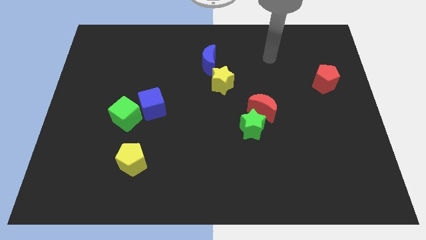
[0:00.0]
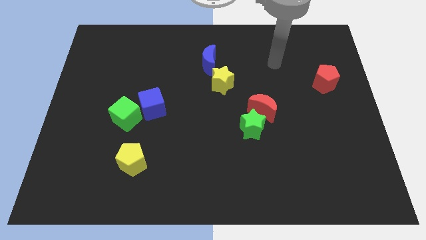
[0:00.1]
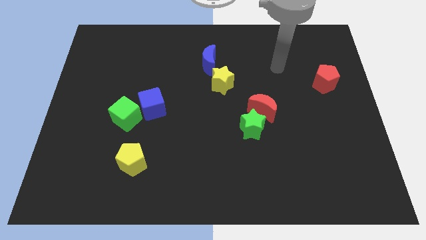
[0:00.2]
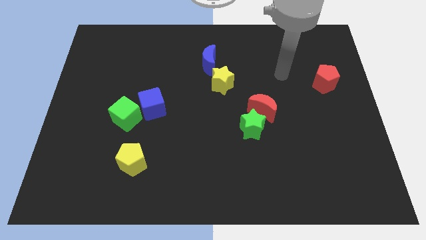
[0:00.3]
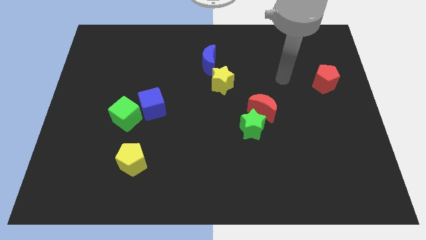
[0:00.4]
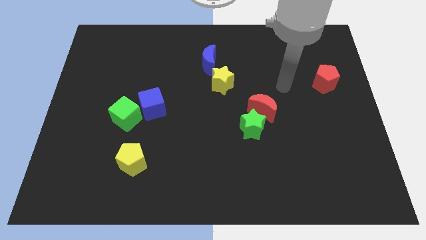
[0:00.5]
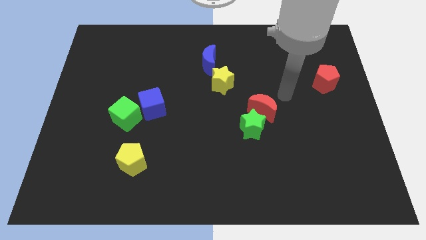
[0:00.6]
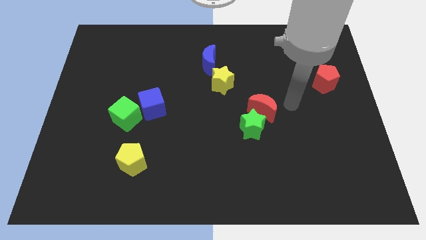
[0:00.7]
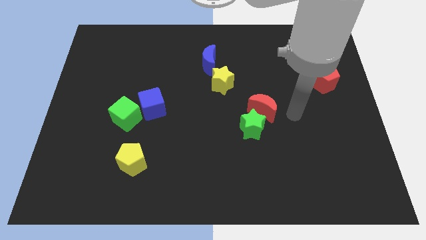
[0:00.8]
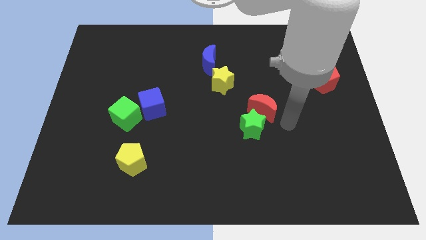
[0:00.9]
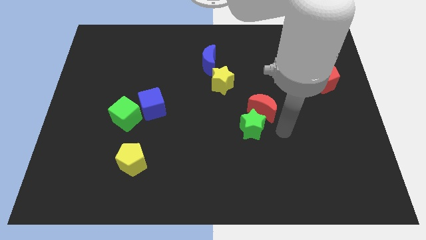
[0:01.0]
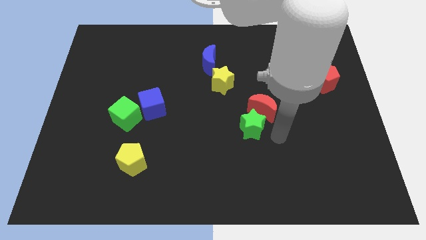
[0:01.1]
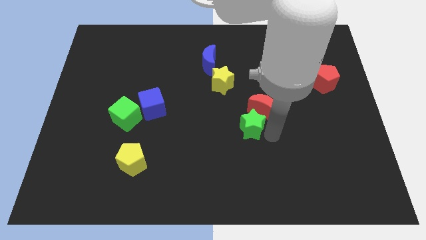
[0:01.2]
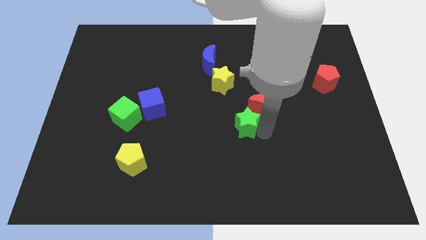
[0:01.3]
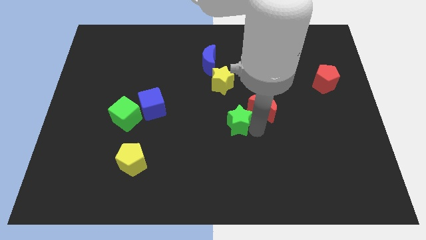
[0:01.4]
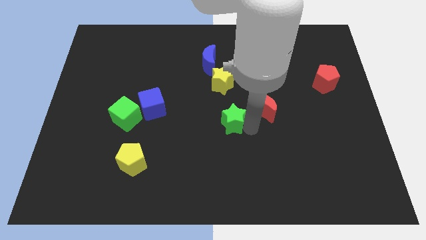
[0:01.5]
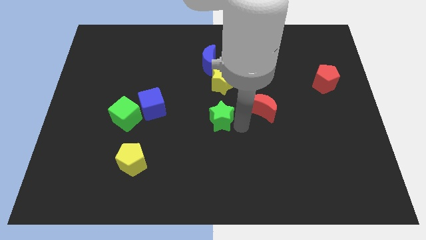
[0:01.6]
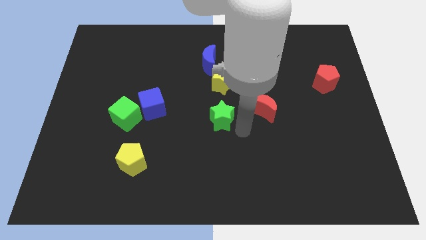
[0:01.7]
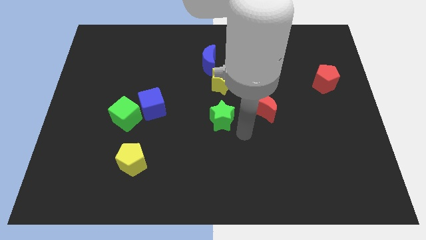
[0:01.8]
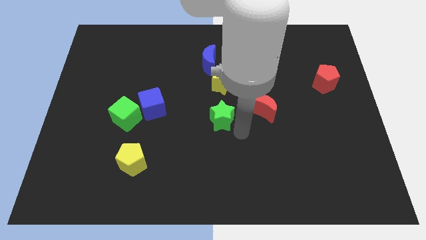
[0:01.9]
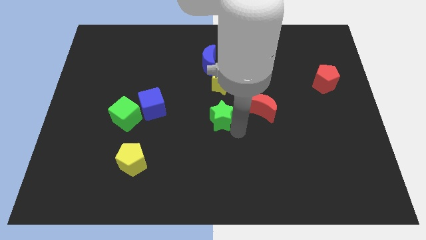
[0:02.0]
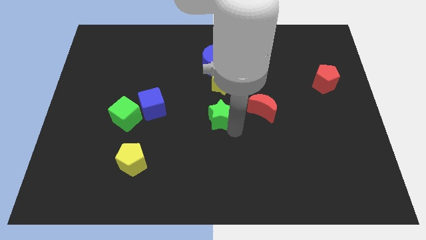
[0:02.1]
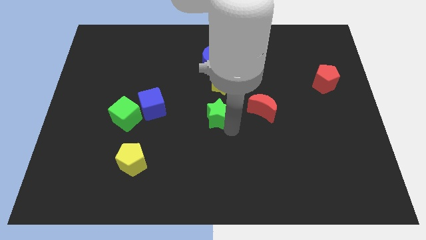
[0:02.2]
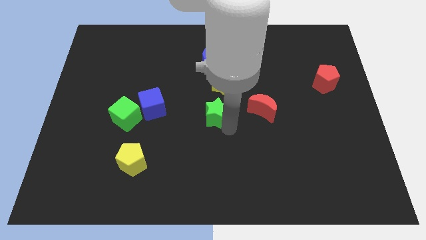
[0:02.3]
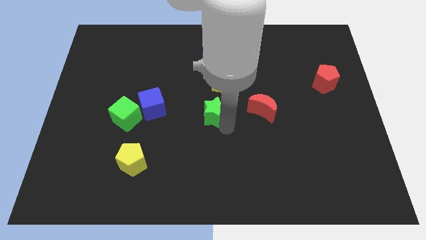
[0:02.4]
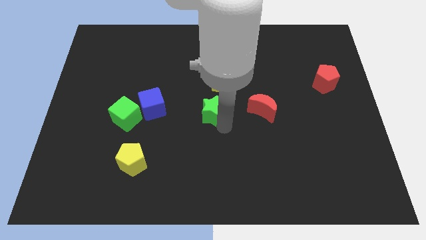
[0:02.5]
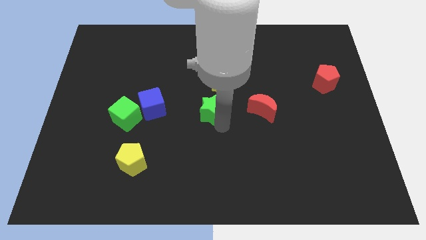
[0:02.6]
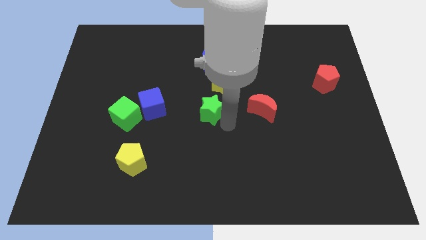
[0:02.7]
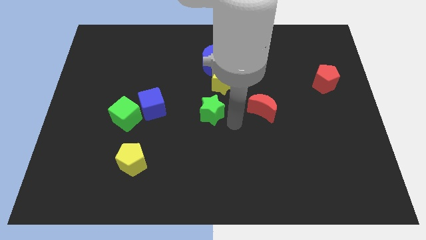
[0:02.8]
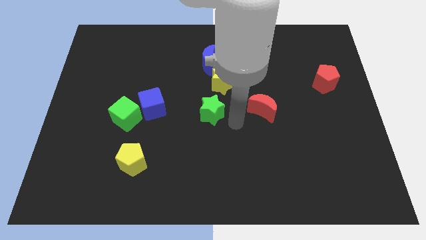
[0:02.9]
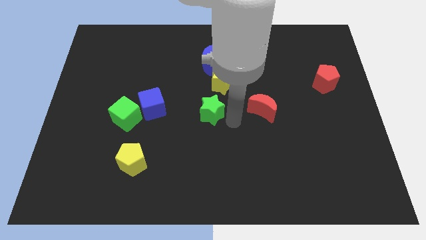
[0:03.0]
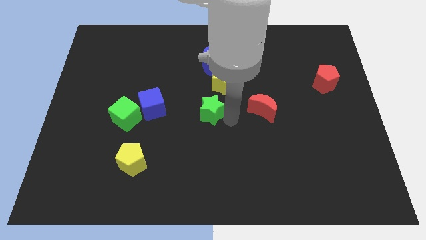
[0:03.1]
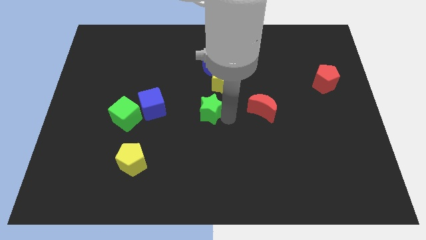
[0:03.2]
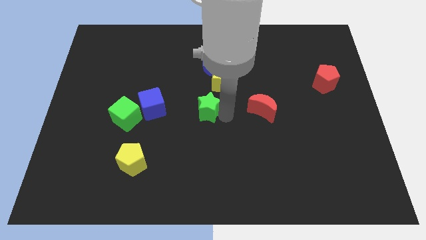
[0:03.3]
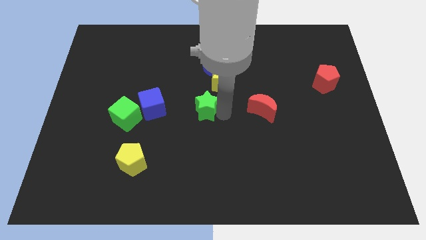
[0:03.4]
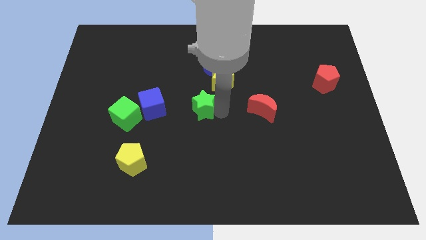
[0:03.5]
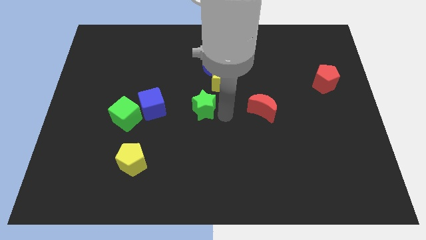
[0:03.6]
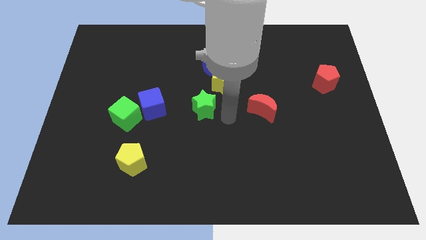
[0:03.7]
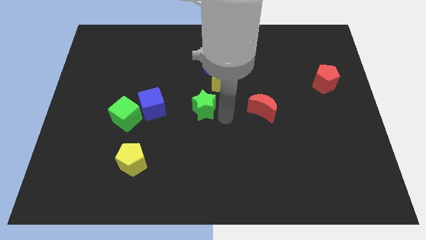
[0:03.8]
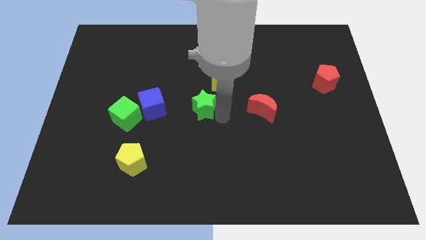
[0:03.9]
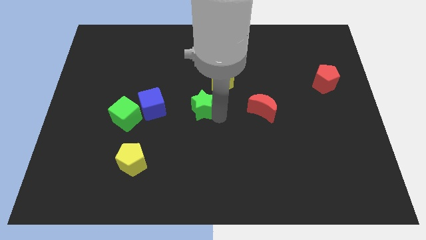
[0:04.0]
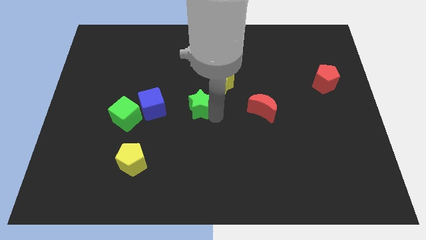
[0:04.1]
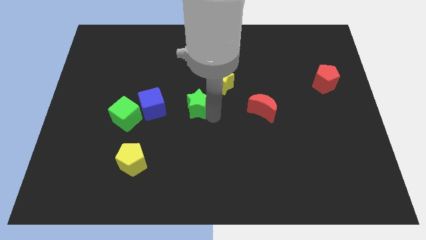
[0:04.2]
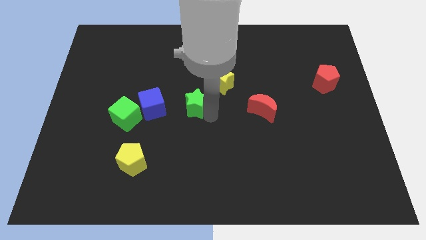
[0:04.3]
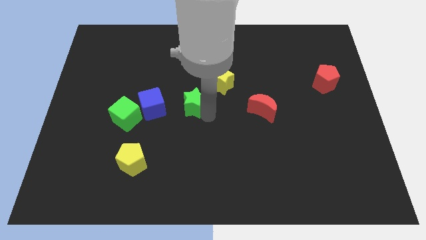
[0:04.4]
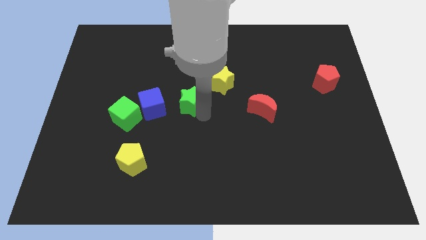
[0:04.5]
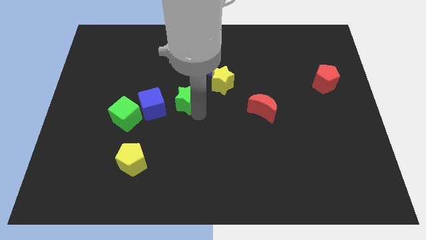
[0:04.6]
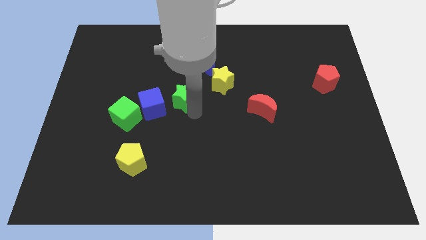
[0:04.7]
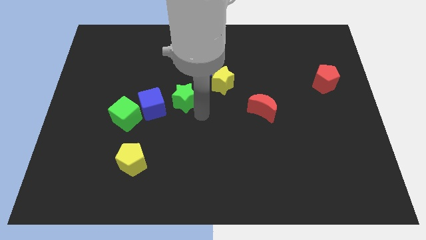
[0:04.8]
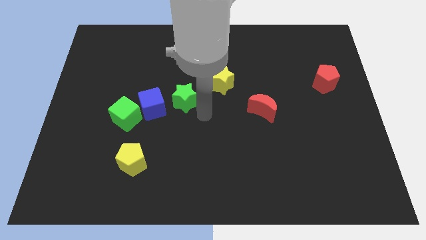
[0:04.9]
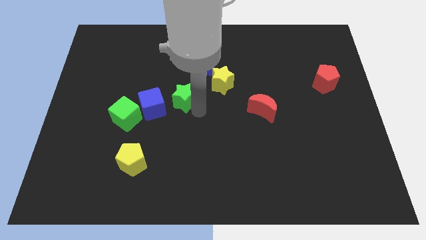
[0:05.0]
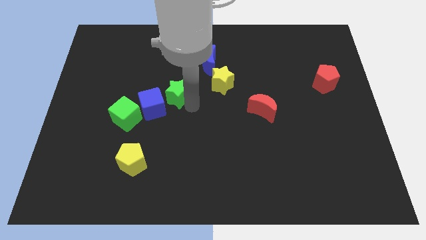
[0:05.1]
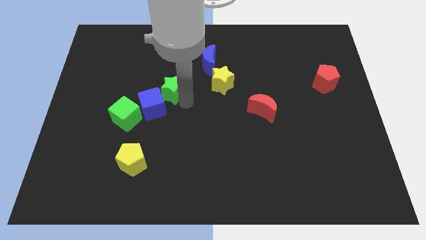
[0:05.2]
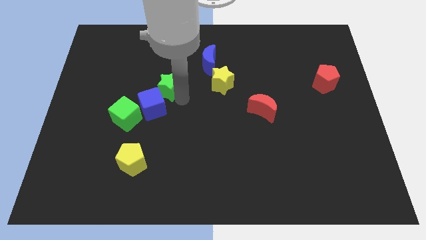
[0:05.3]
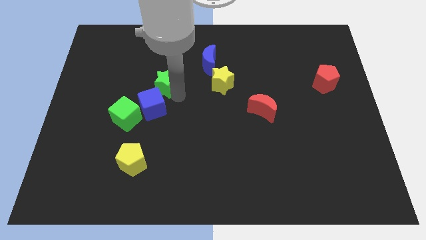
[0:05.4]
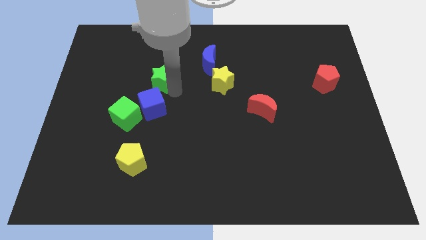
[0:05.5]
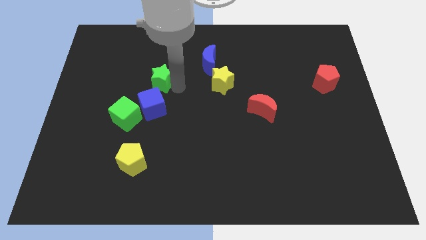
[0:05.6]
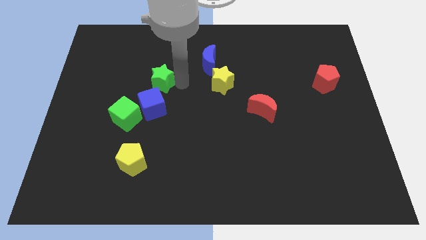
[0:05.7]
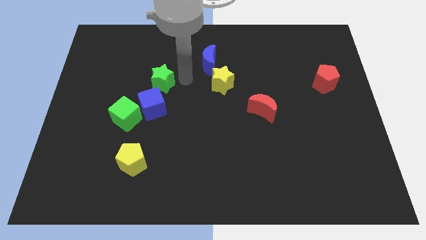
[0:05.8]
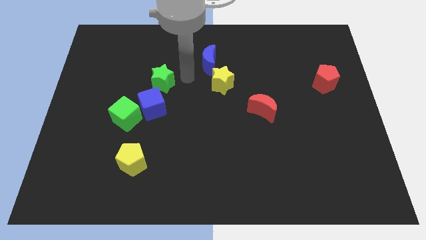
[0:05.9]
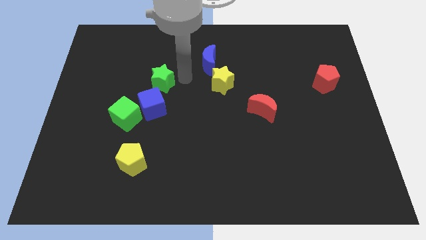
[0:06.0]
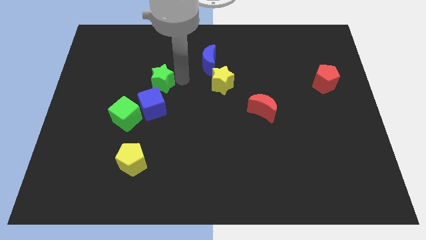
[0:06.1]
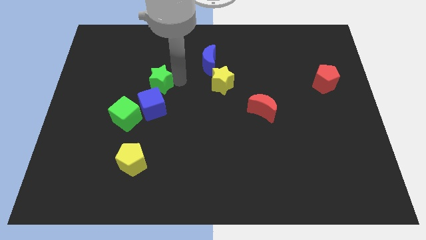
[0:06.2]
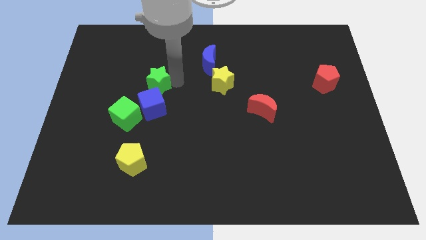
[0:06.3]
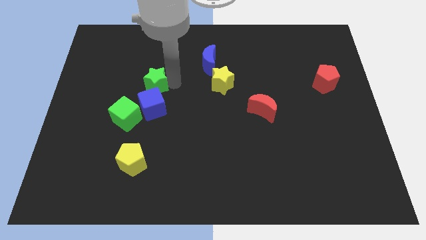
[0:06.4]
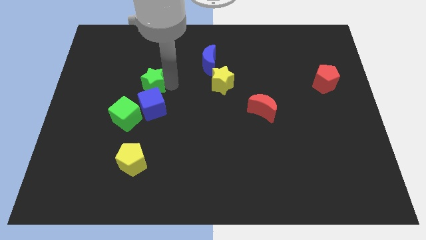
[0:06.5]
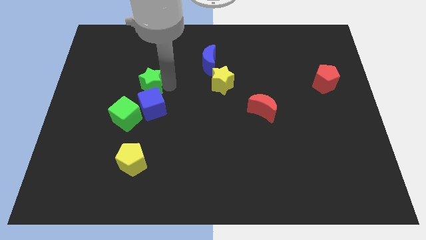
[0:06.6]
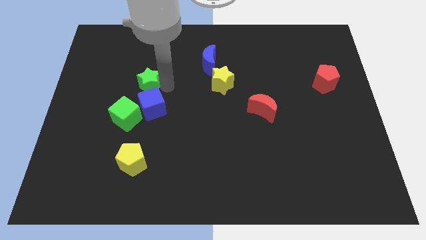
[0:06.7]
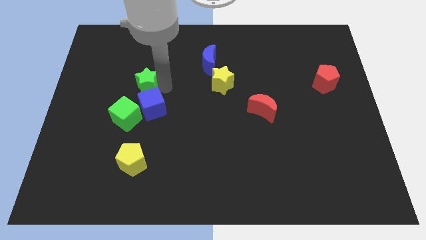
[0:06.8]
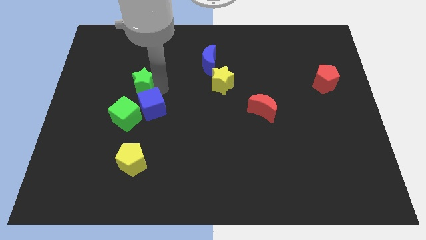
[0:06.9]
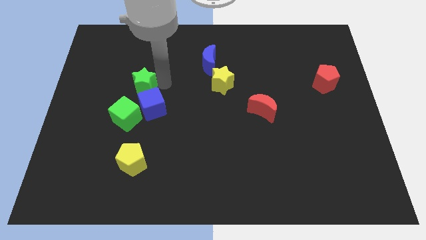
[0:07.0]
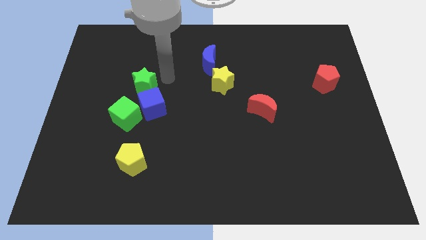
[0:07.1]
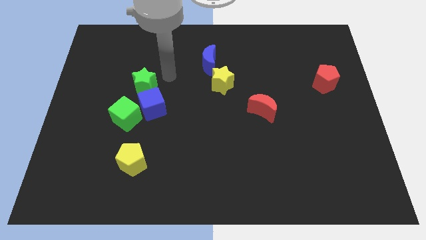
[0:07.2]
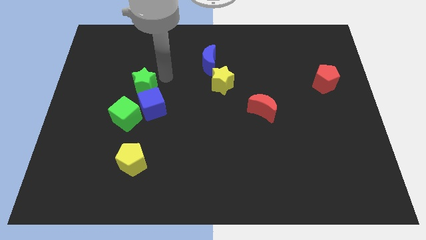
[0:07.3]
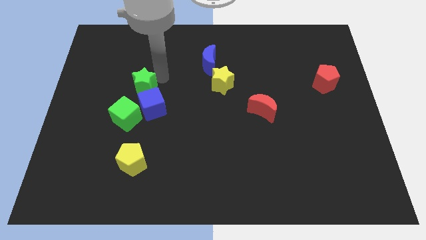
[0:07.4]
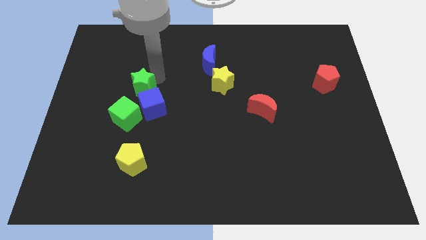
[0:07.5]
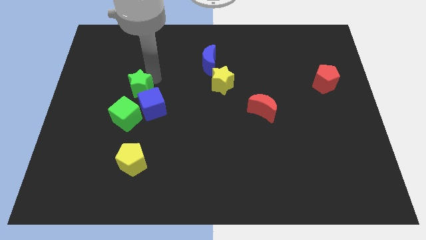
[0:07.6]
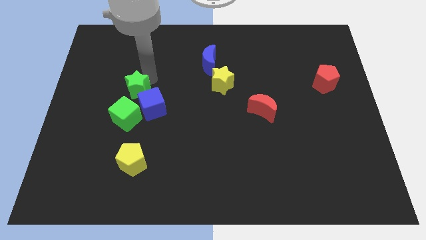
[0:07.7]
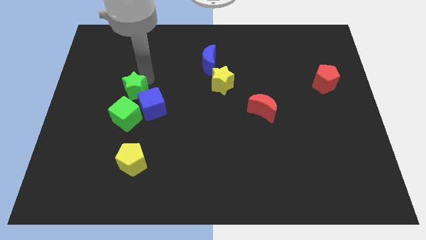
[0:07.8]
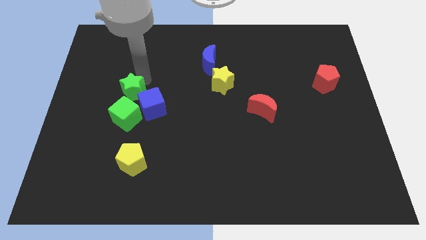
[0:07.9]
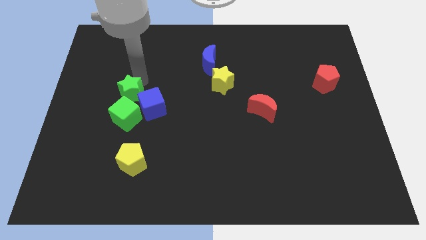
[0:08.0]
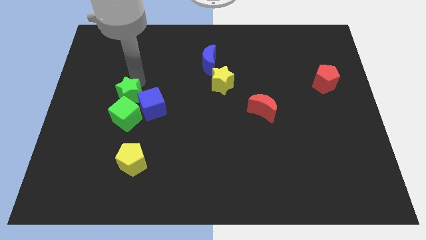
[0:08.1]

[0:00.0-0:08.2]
put the green star to the top left of the green cube
